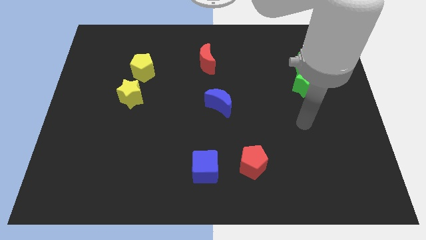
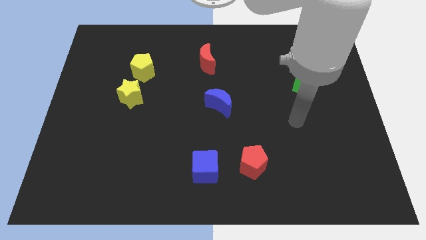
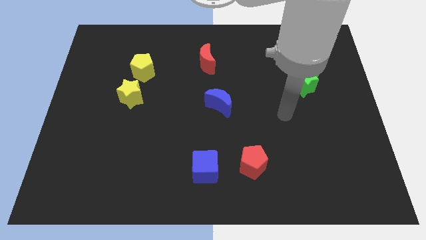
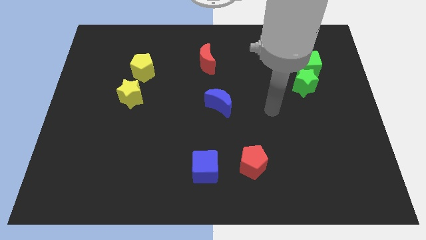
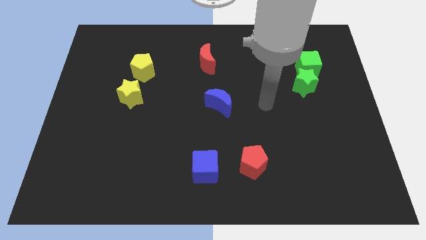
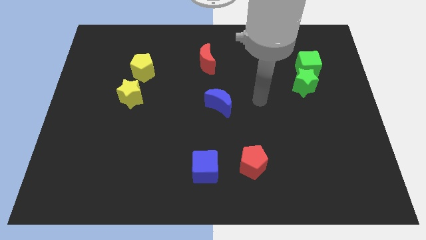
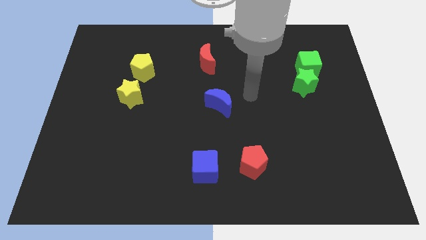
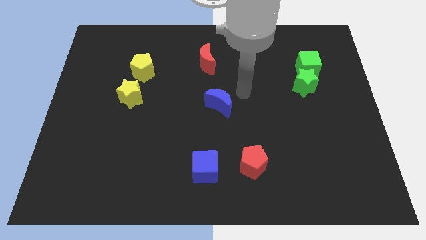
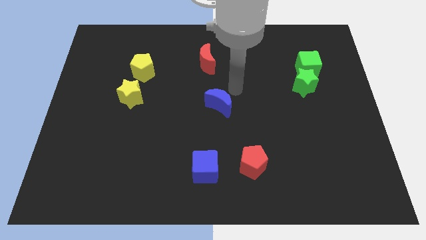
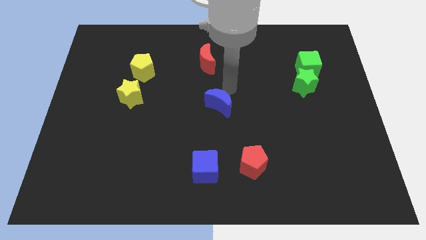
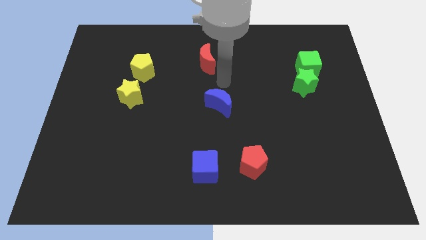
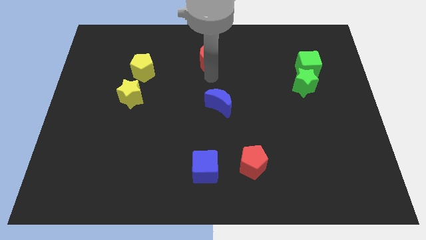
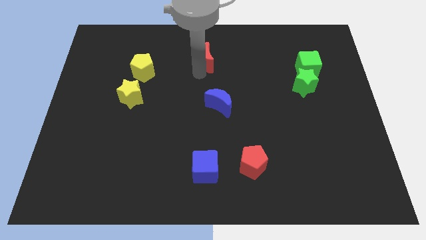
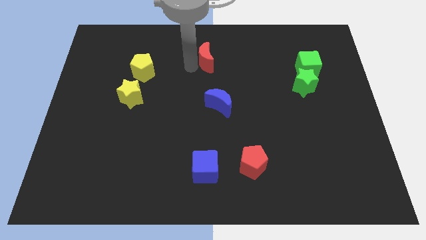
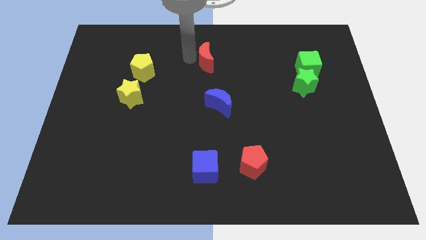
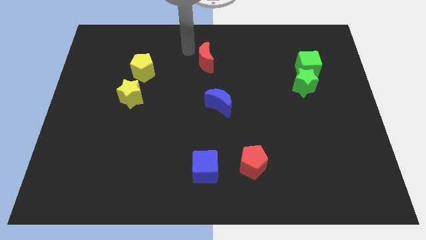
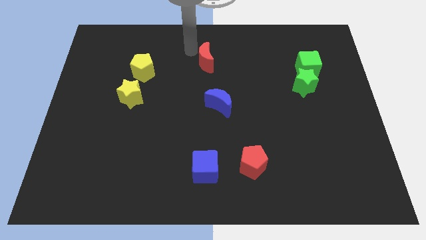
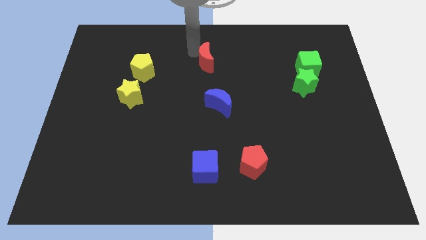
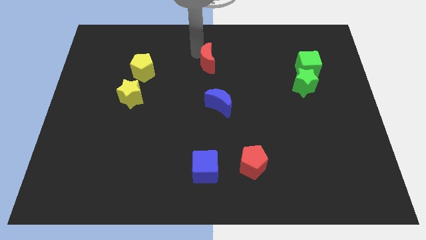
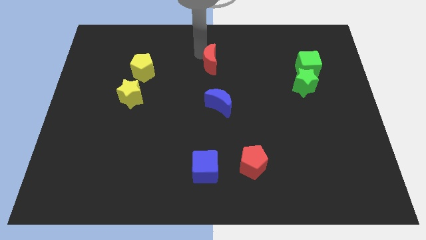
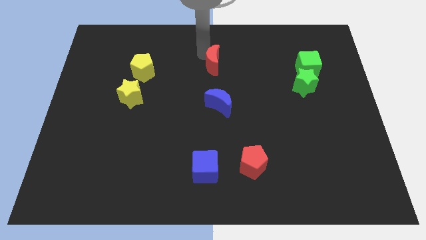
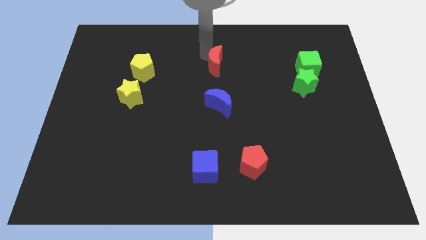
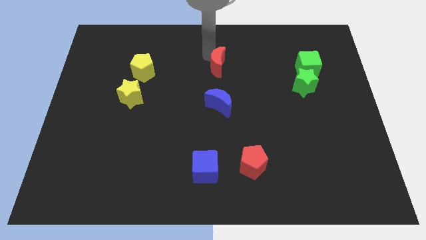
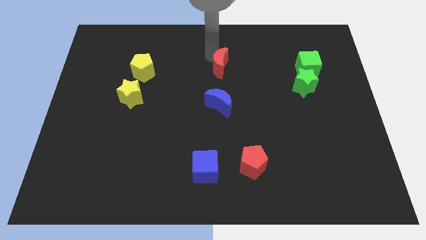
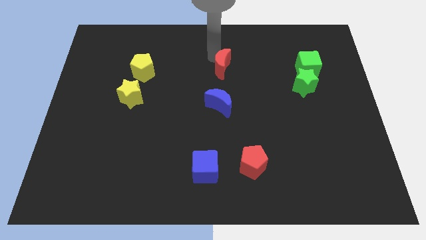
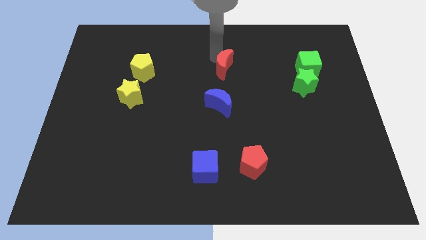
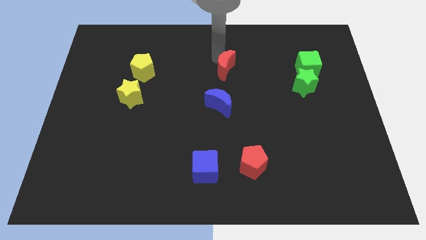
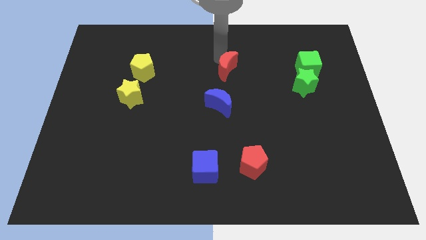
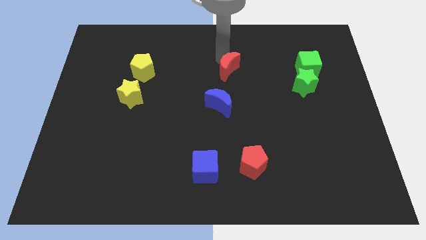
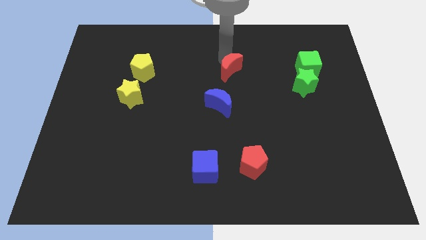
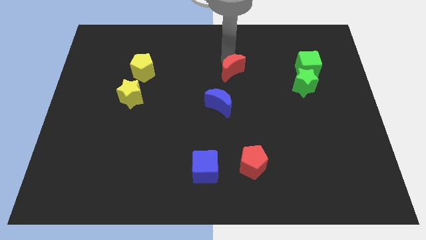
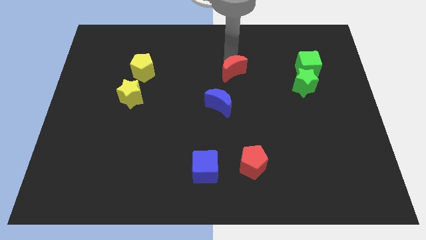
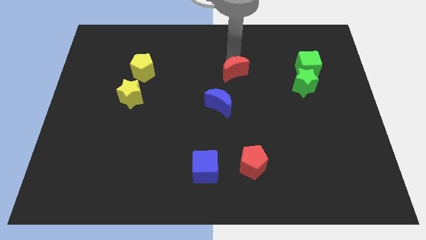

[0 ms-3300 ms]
slide the red moon slightly down and to the right diagonally

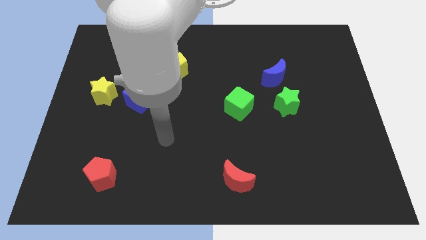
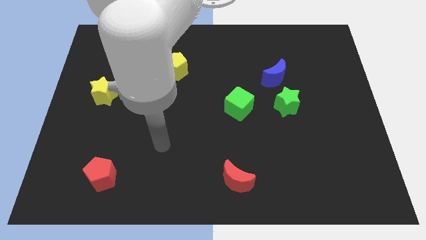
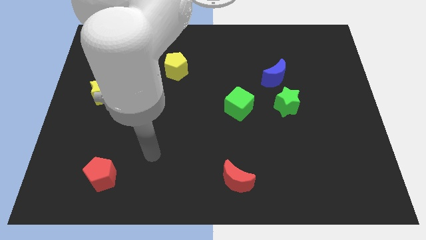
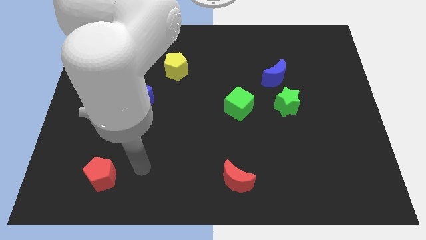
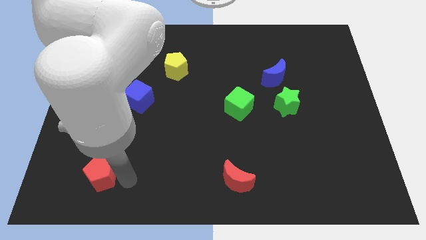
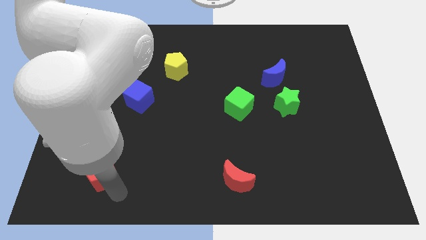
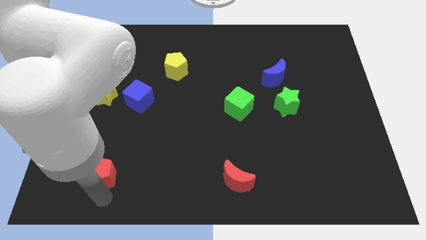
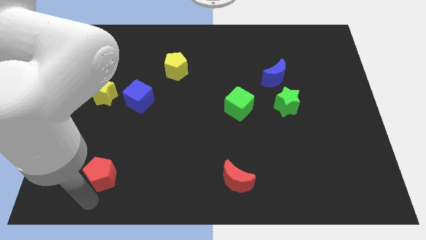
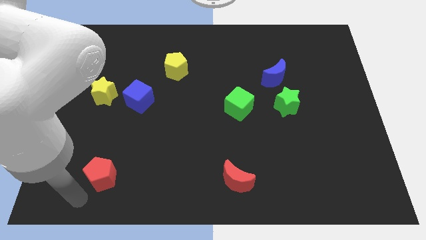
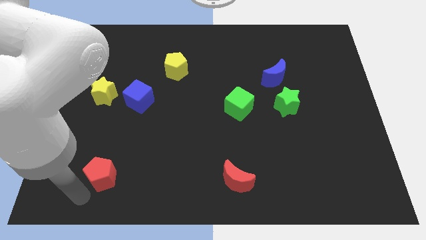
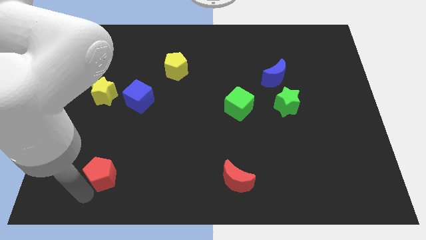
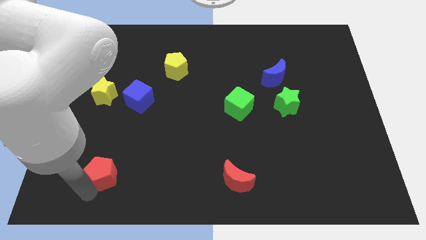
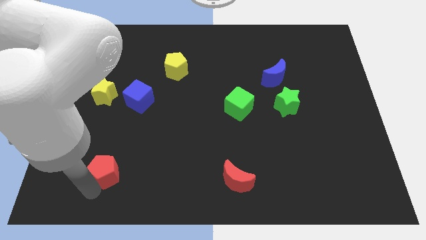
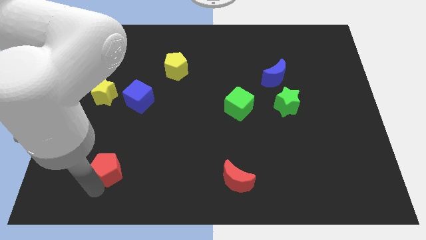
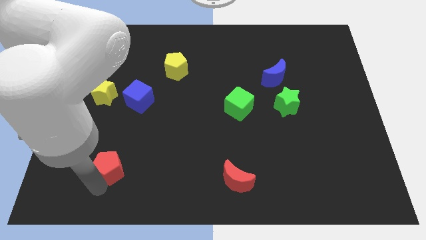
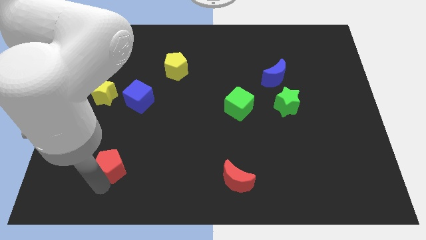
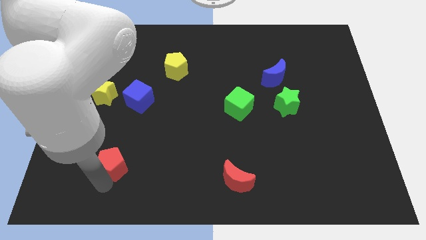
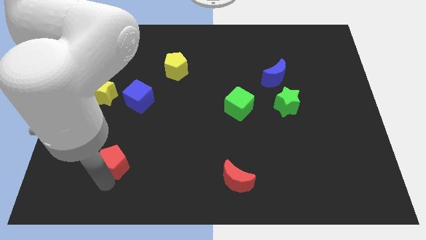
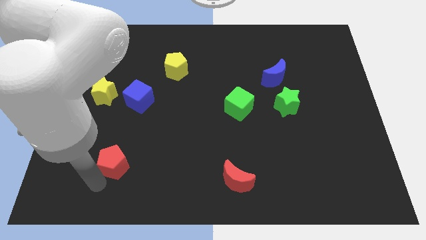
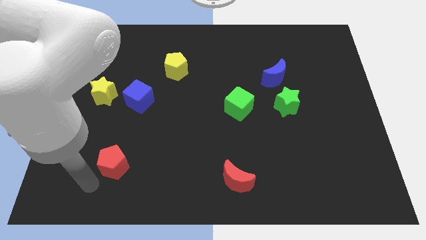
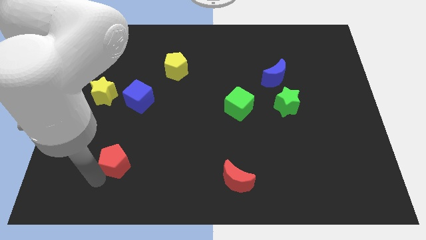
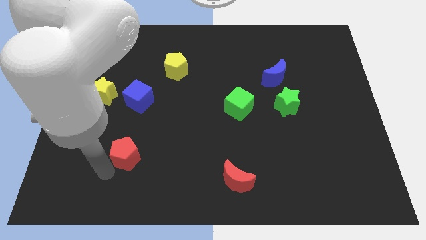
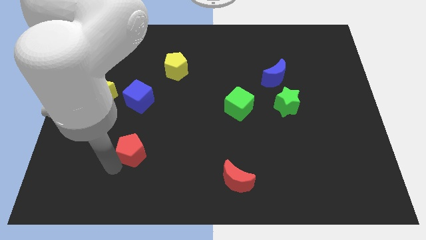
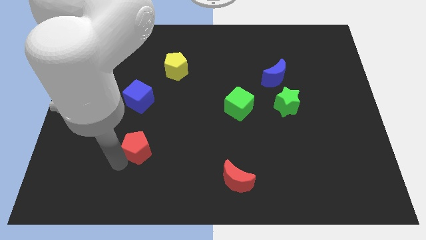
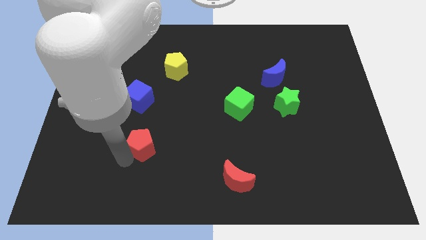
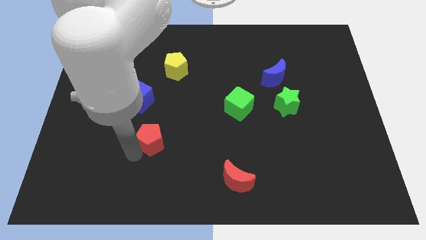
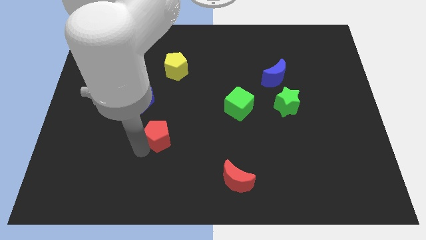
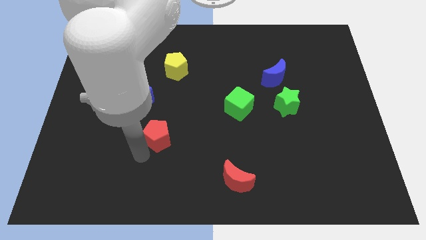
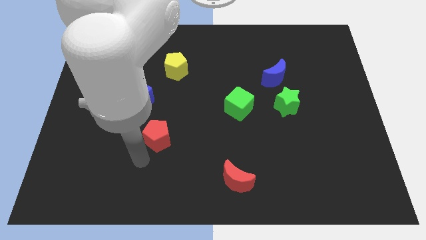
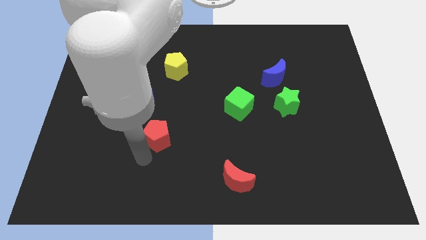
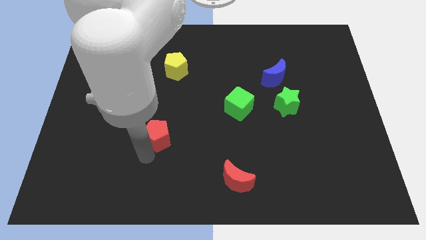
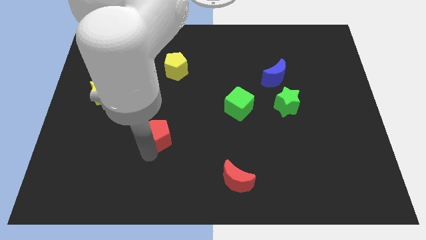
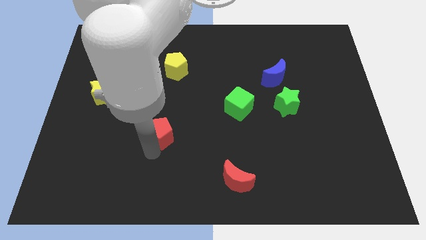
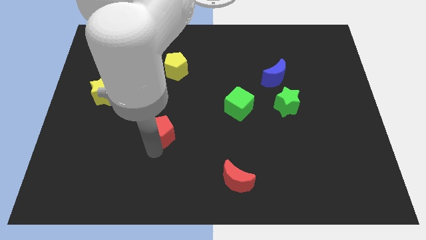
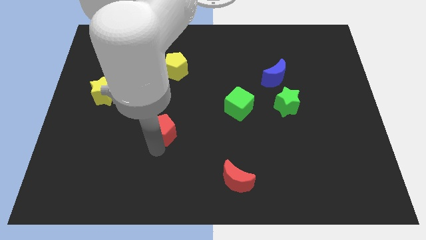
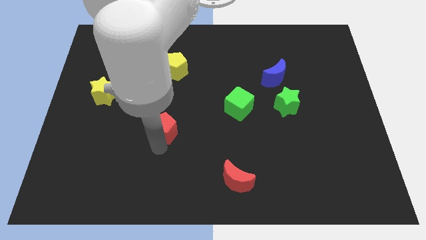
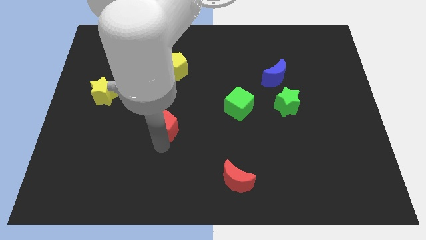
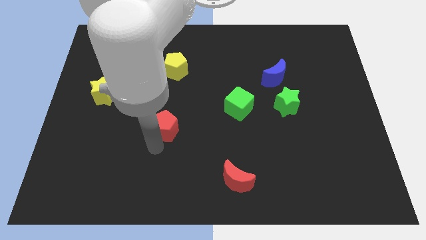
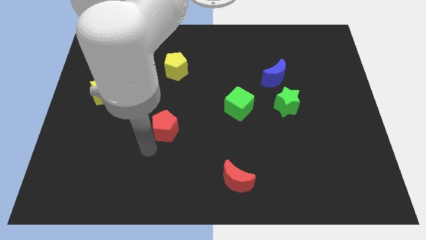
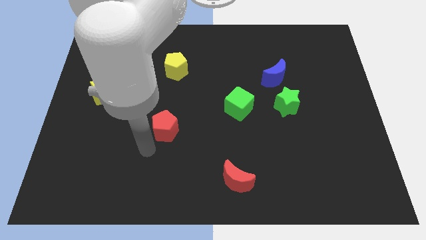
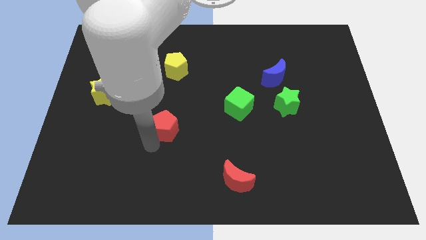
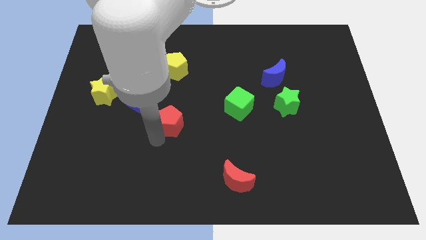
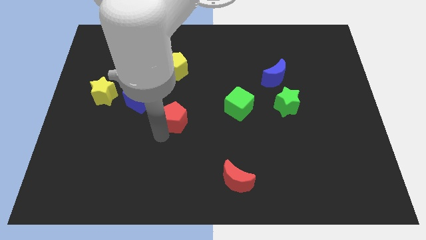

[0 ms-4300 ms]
move the red pentagon up and then right

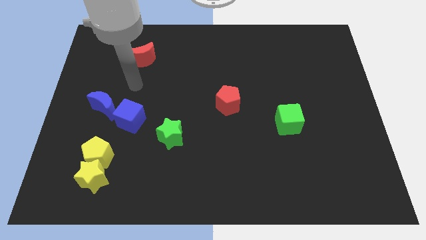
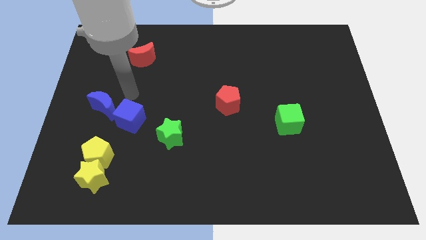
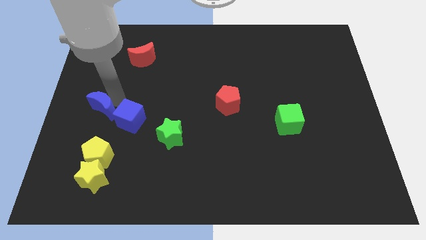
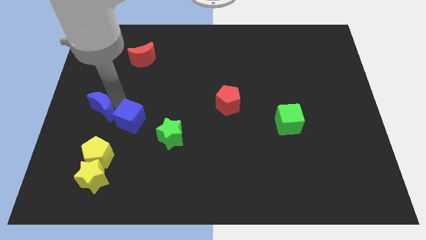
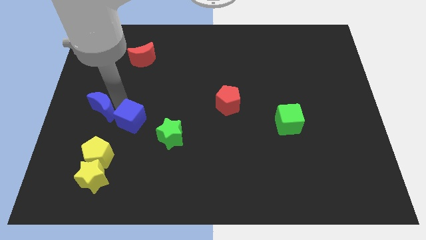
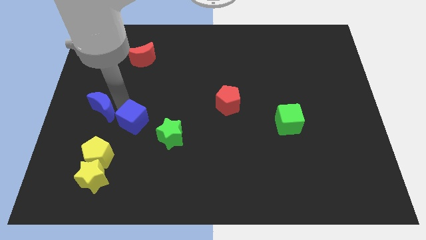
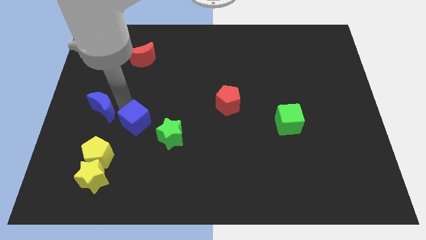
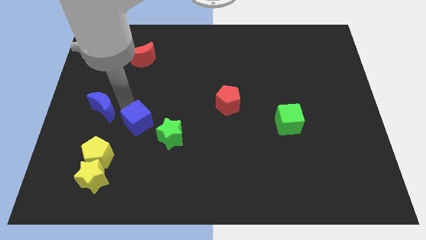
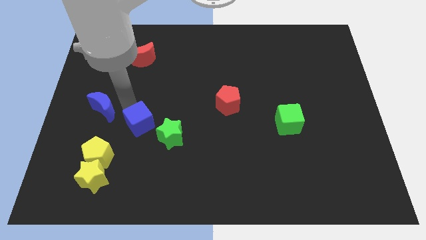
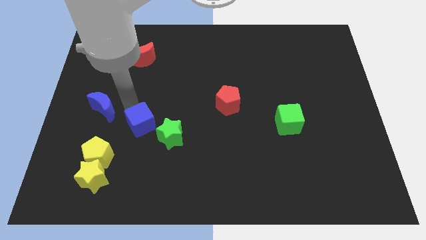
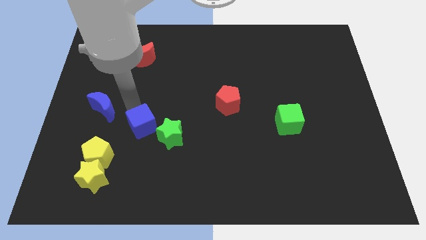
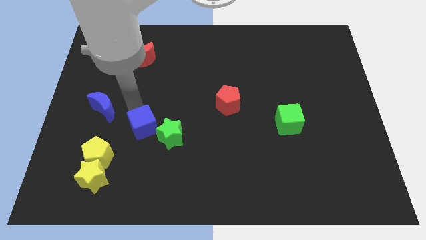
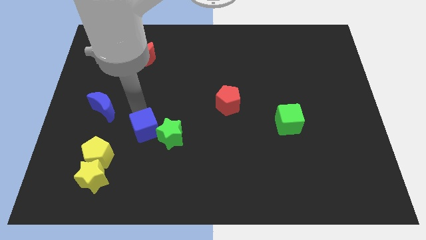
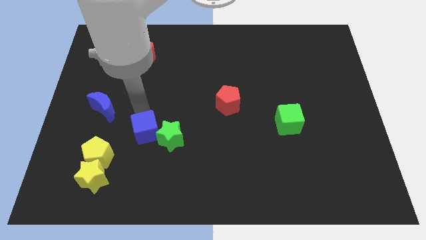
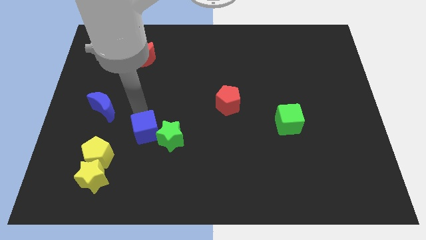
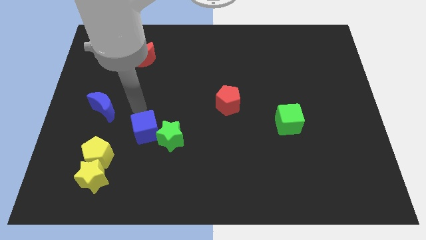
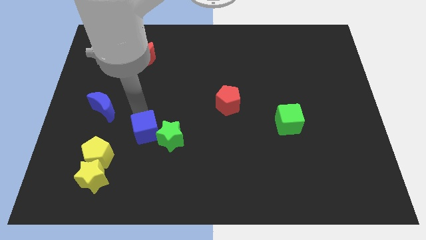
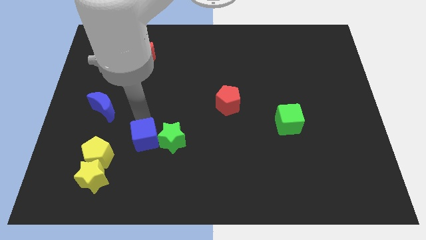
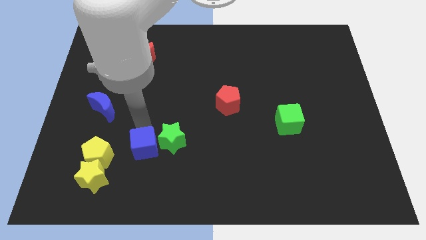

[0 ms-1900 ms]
push the blue cube a bit down and to the right
